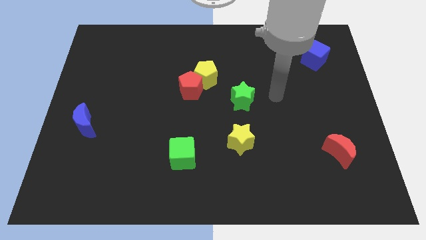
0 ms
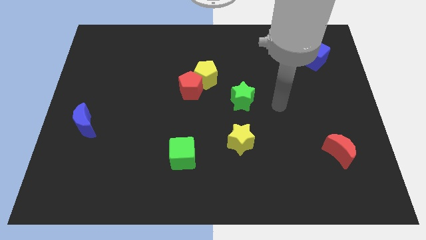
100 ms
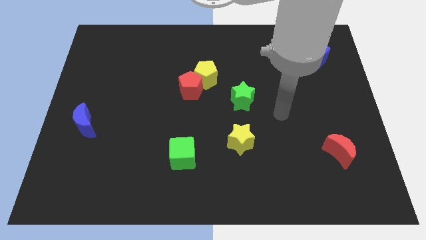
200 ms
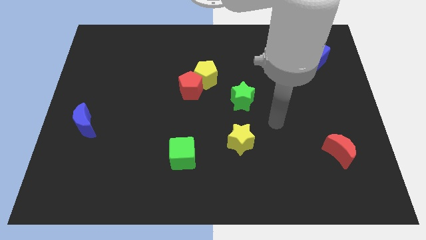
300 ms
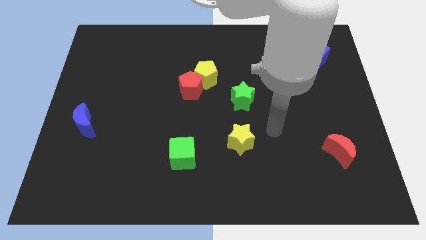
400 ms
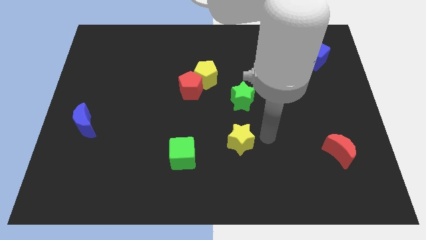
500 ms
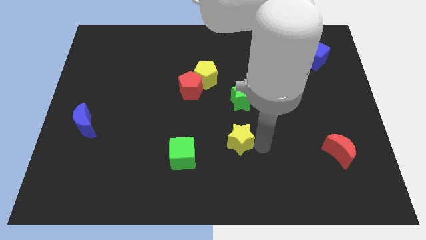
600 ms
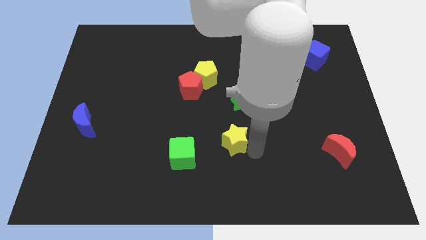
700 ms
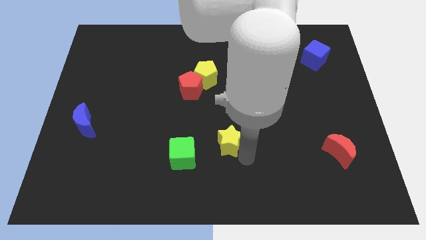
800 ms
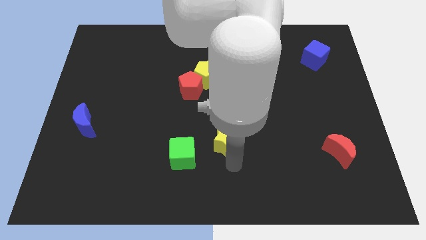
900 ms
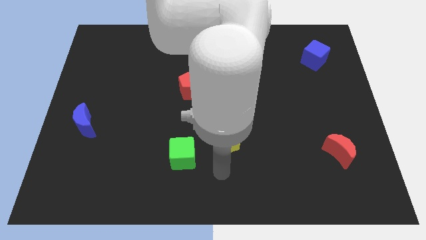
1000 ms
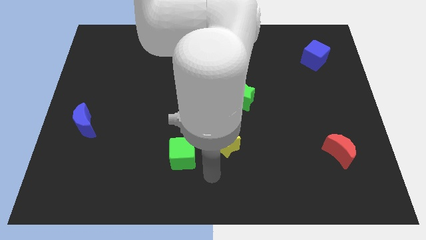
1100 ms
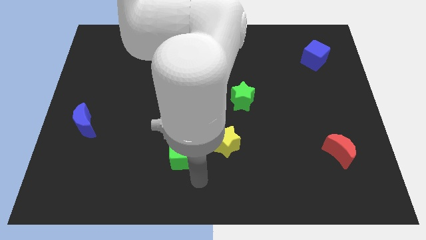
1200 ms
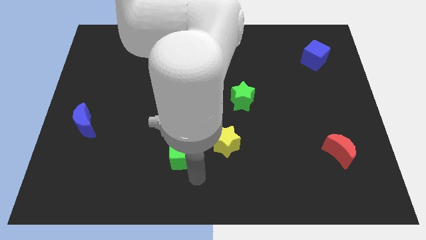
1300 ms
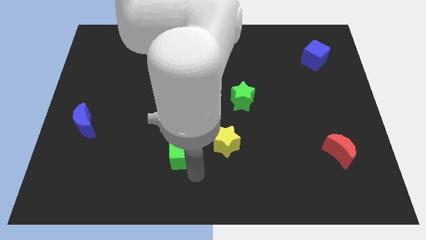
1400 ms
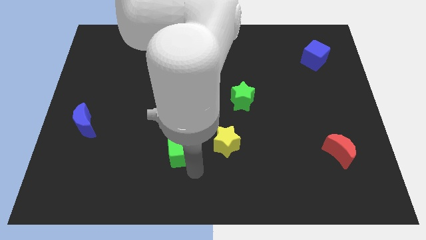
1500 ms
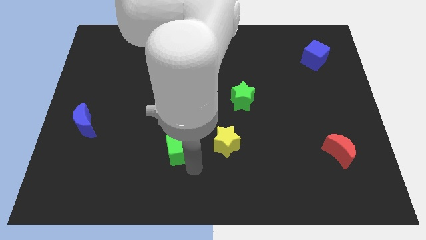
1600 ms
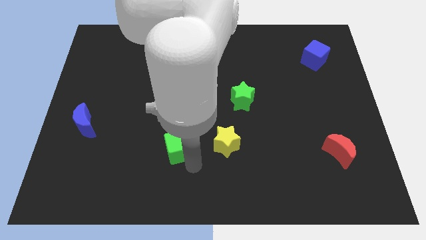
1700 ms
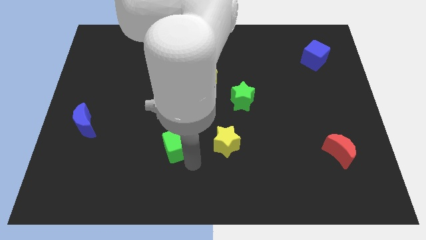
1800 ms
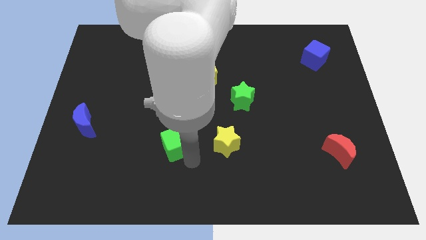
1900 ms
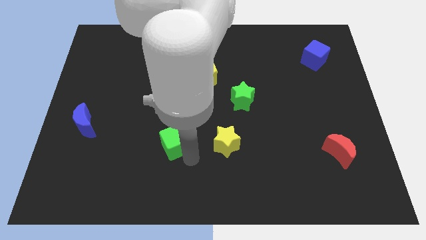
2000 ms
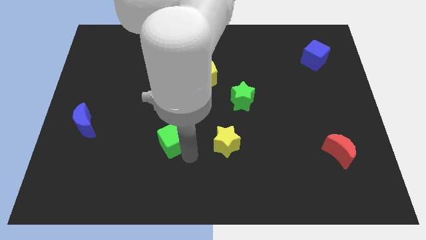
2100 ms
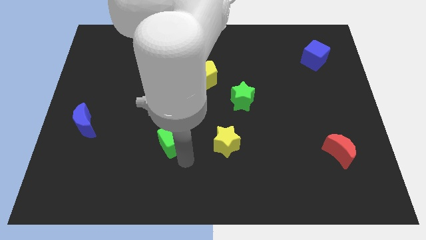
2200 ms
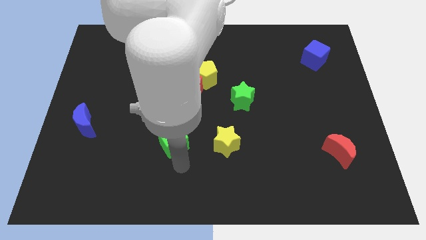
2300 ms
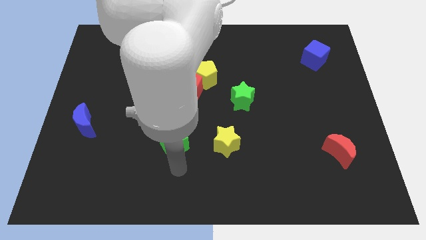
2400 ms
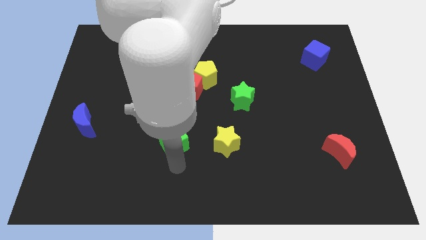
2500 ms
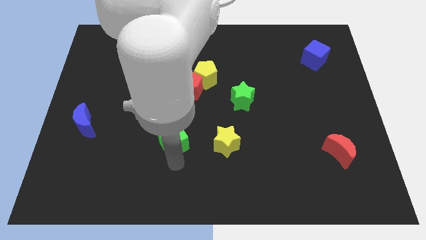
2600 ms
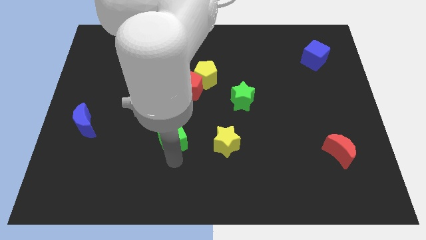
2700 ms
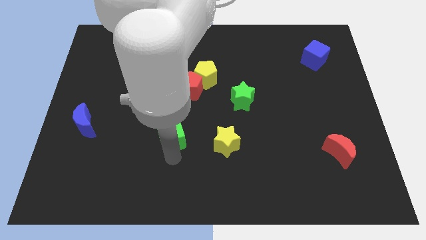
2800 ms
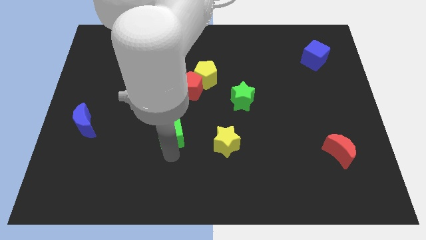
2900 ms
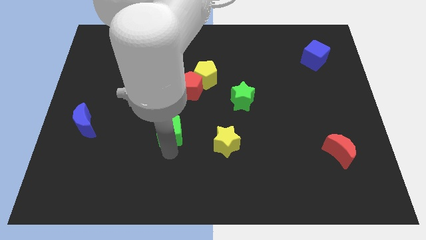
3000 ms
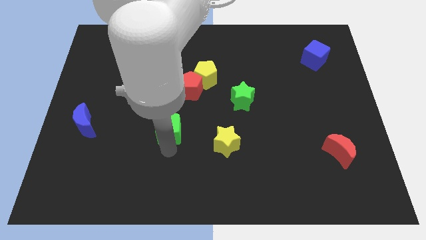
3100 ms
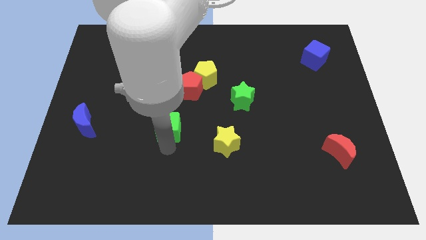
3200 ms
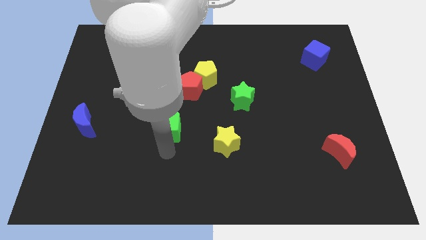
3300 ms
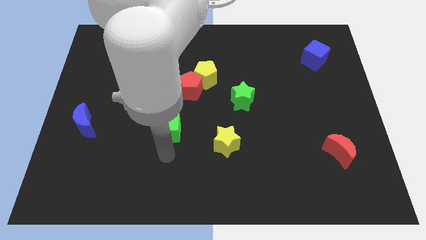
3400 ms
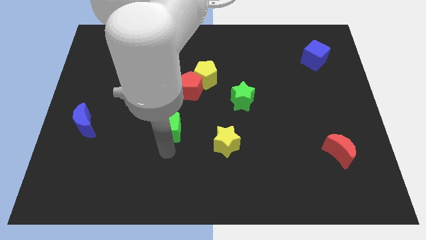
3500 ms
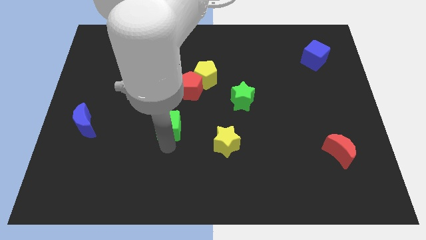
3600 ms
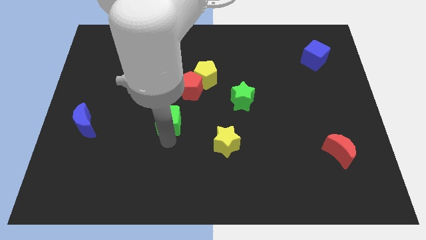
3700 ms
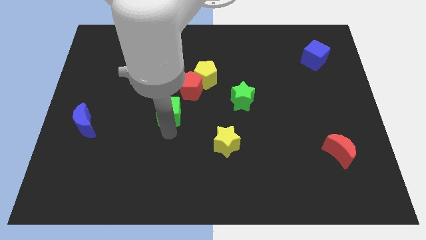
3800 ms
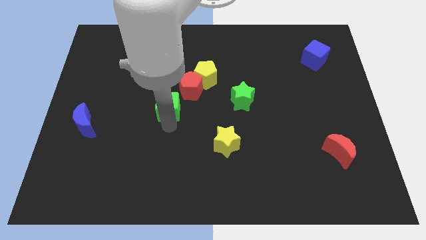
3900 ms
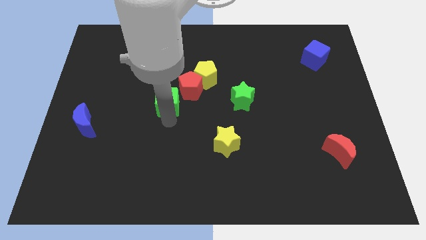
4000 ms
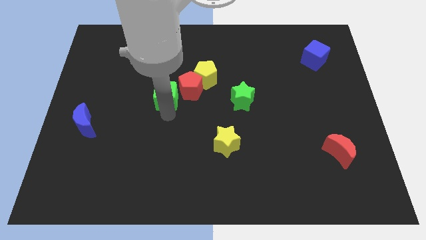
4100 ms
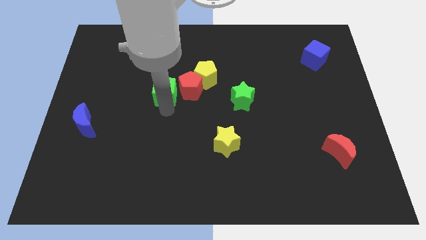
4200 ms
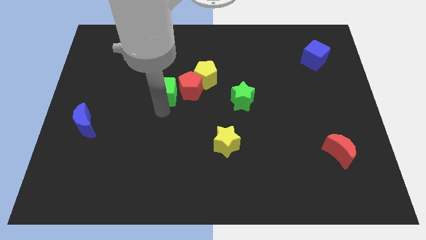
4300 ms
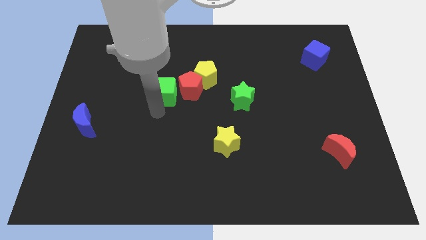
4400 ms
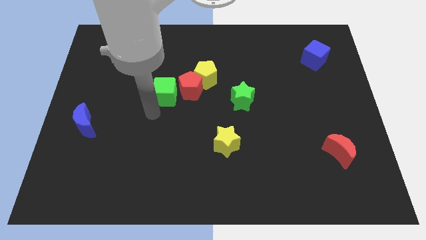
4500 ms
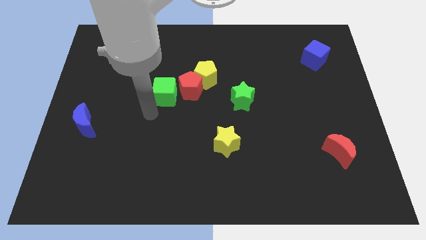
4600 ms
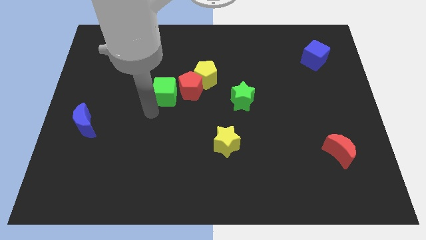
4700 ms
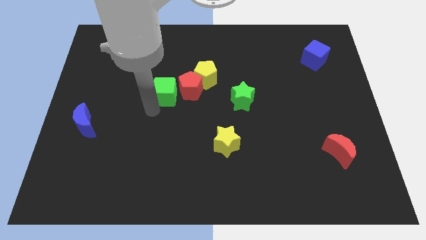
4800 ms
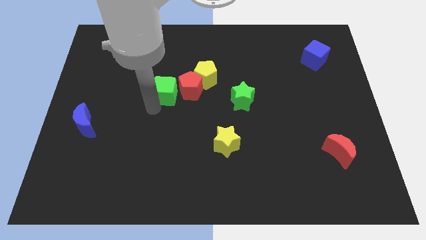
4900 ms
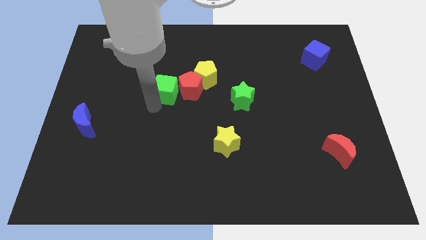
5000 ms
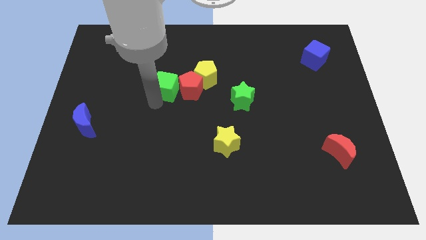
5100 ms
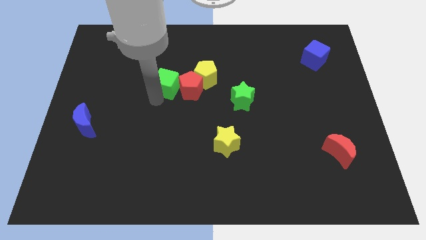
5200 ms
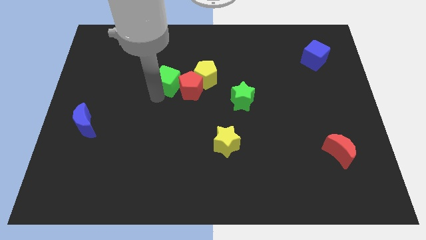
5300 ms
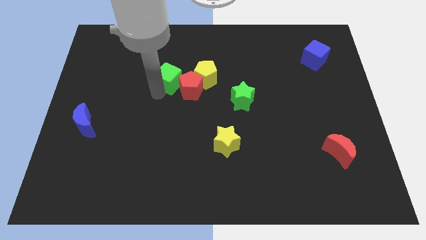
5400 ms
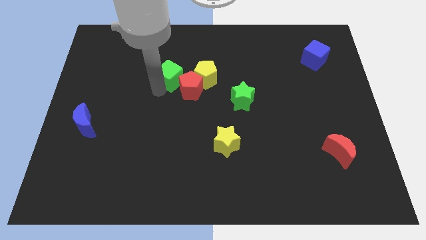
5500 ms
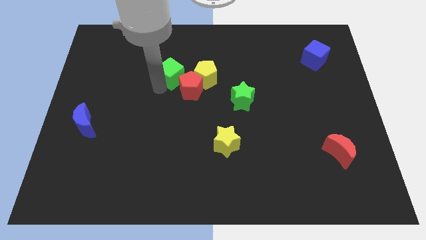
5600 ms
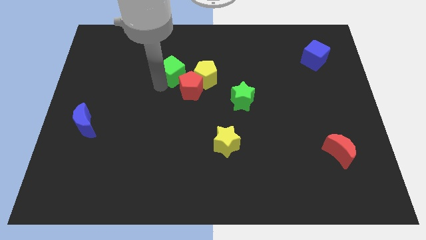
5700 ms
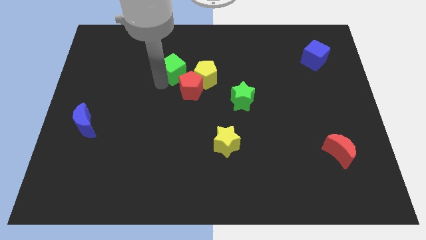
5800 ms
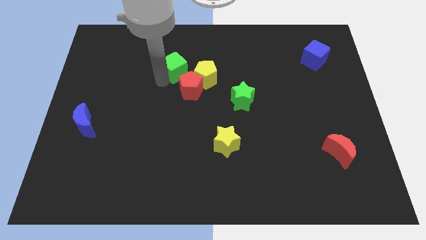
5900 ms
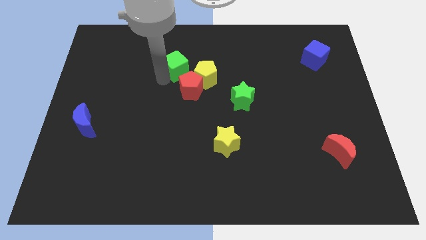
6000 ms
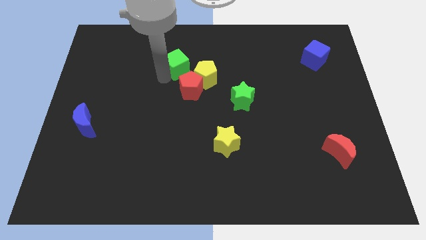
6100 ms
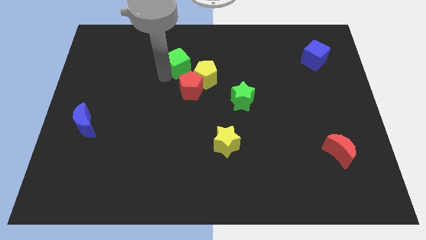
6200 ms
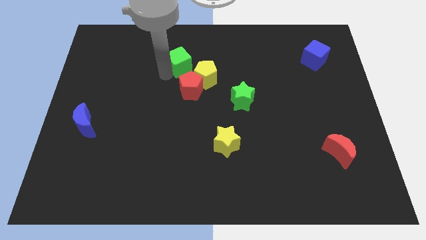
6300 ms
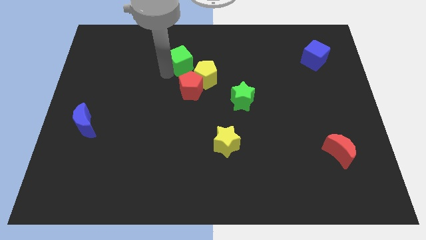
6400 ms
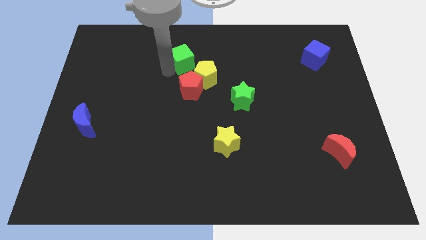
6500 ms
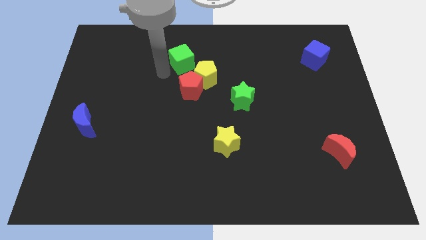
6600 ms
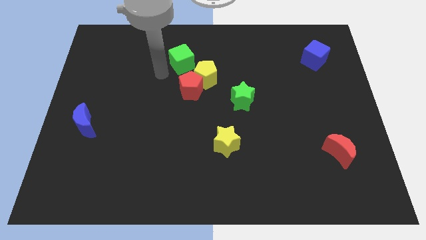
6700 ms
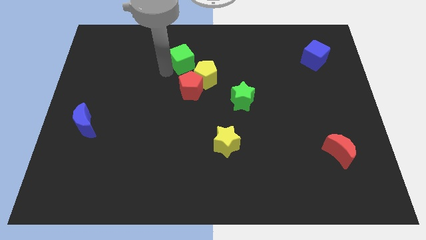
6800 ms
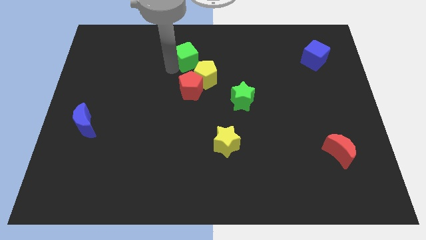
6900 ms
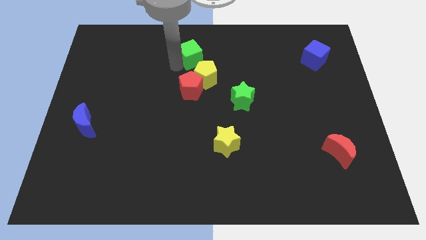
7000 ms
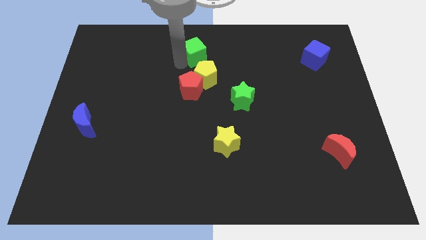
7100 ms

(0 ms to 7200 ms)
move the green cube to the top side
